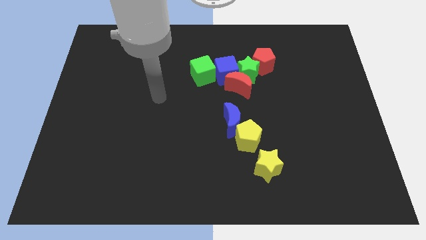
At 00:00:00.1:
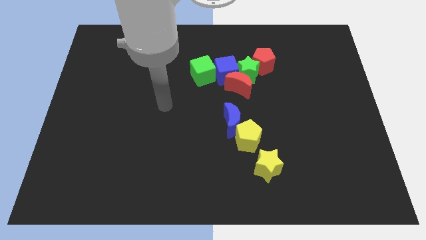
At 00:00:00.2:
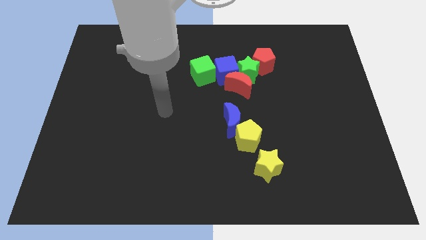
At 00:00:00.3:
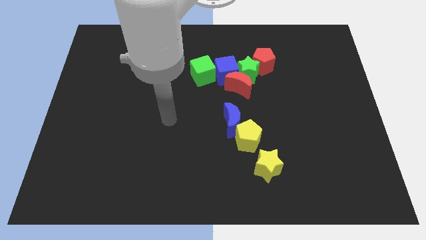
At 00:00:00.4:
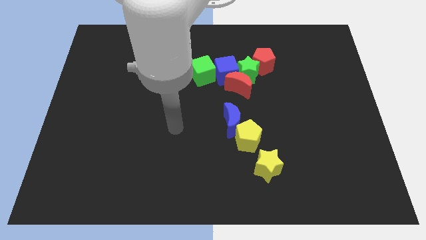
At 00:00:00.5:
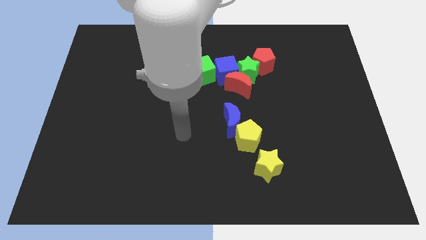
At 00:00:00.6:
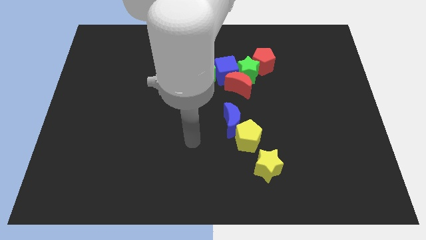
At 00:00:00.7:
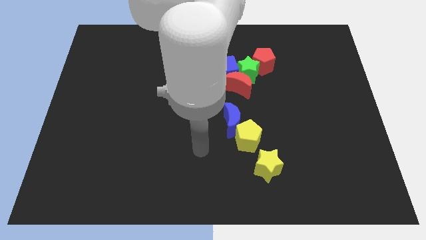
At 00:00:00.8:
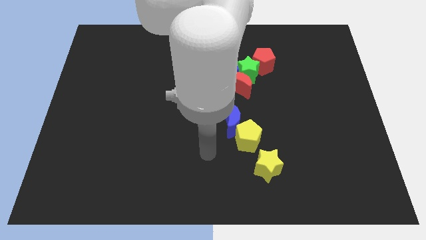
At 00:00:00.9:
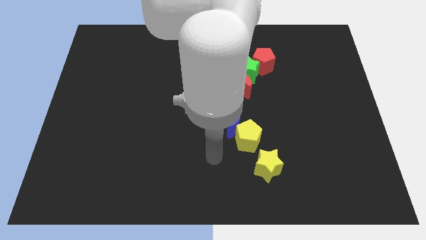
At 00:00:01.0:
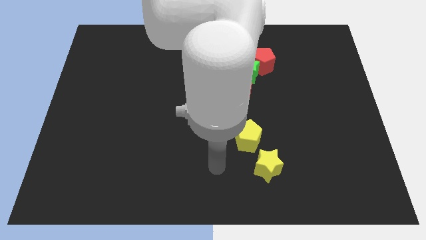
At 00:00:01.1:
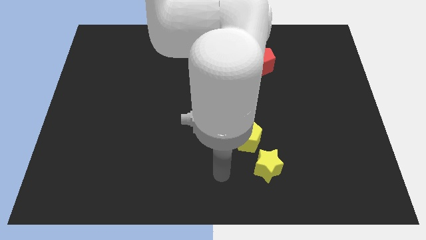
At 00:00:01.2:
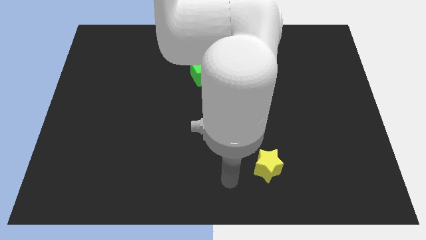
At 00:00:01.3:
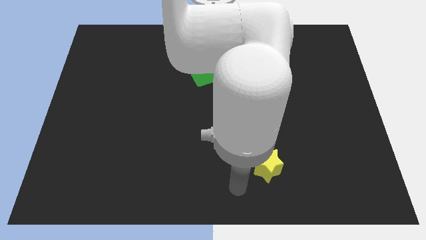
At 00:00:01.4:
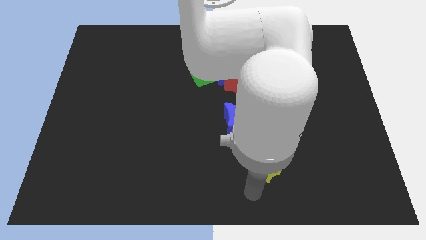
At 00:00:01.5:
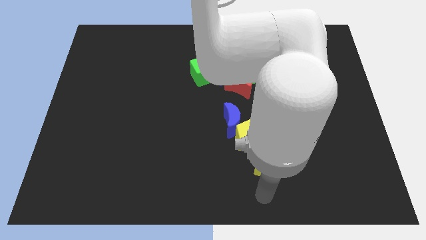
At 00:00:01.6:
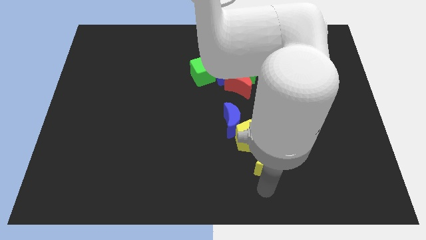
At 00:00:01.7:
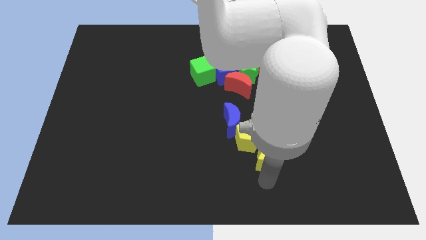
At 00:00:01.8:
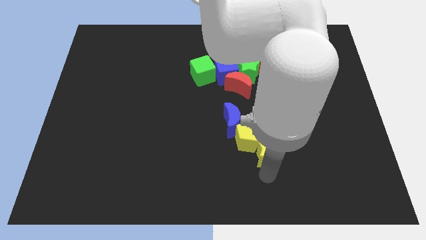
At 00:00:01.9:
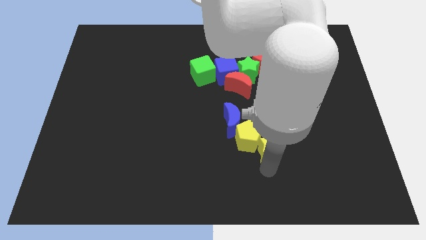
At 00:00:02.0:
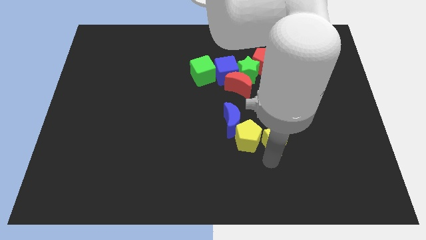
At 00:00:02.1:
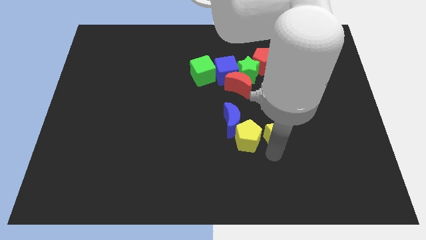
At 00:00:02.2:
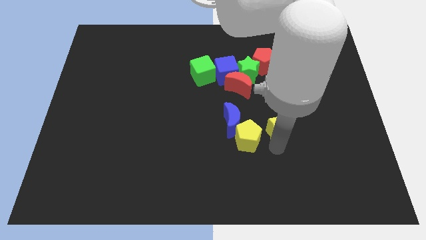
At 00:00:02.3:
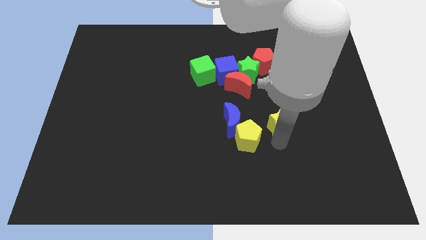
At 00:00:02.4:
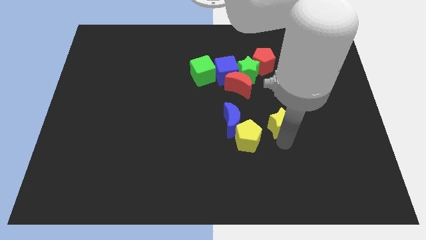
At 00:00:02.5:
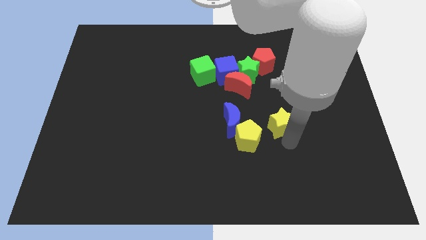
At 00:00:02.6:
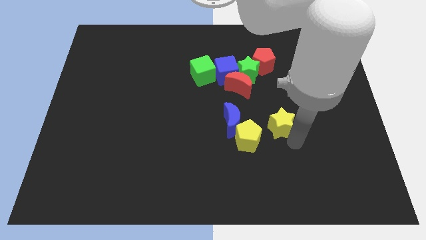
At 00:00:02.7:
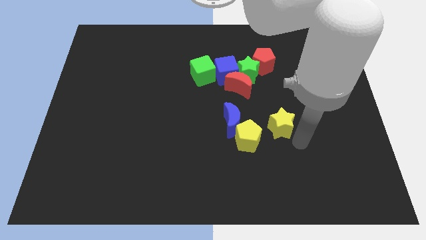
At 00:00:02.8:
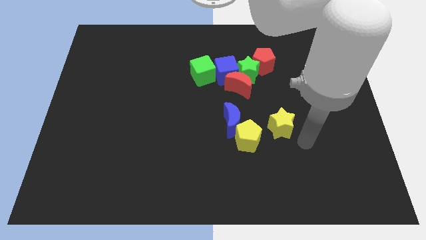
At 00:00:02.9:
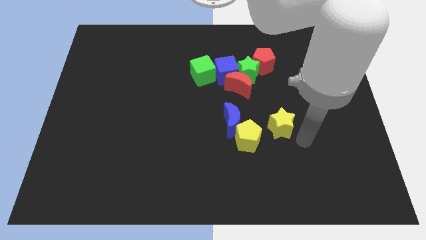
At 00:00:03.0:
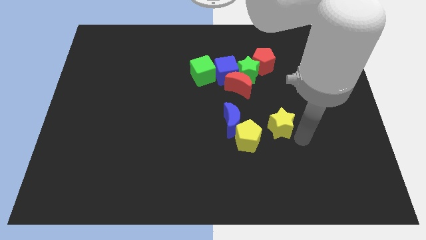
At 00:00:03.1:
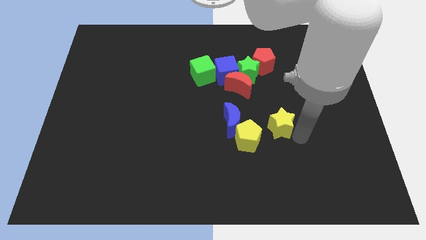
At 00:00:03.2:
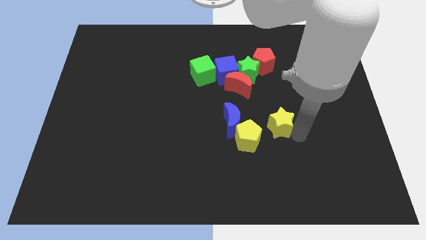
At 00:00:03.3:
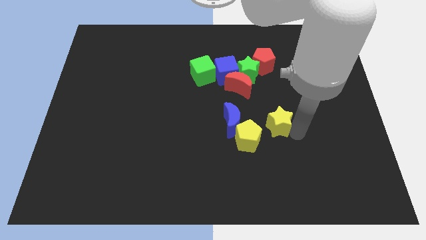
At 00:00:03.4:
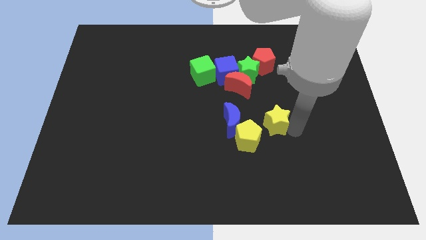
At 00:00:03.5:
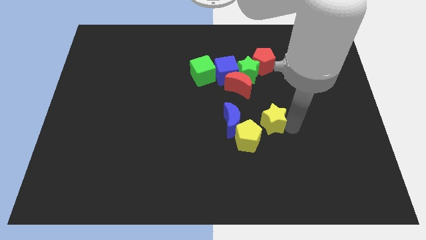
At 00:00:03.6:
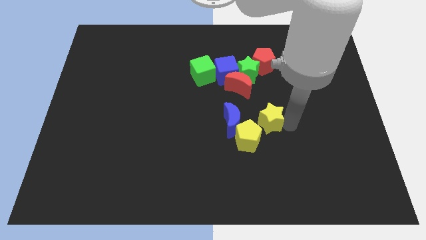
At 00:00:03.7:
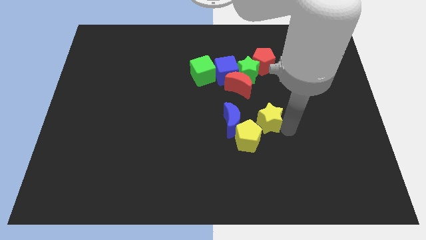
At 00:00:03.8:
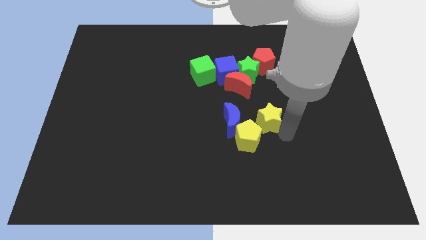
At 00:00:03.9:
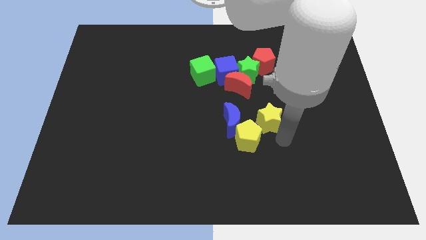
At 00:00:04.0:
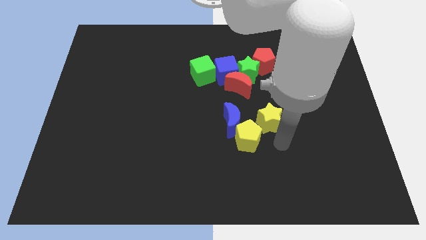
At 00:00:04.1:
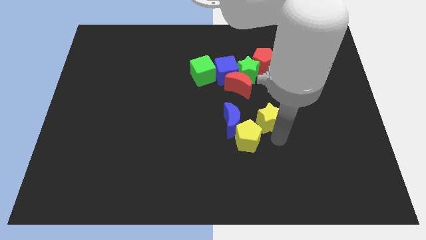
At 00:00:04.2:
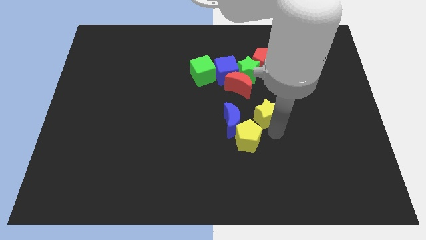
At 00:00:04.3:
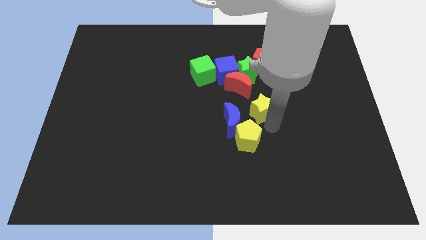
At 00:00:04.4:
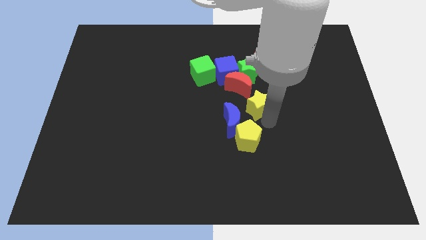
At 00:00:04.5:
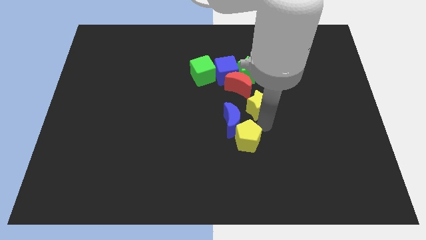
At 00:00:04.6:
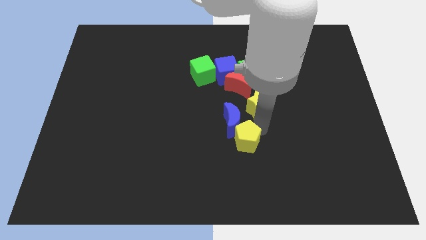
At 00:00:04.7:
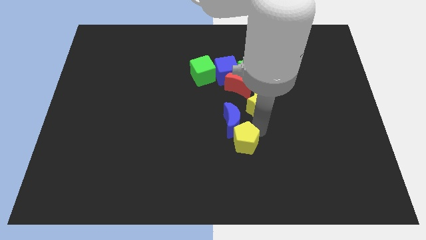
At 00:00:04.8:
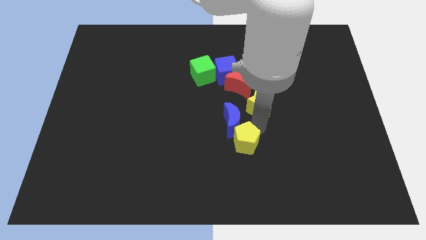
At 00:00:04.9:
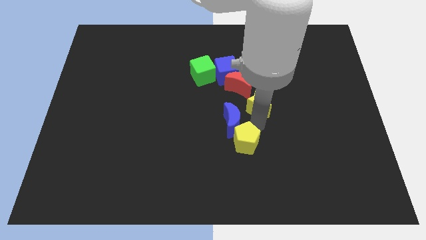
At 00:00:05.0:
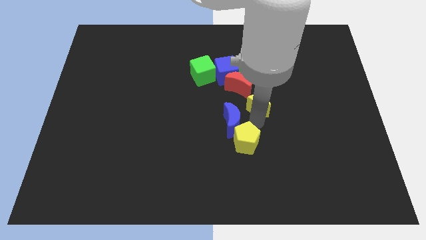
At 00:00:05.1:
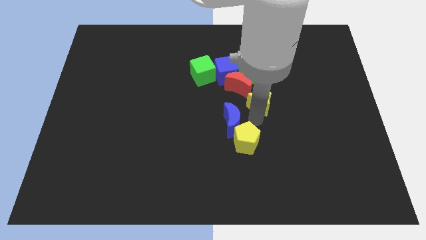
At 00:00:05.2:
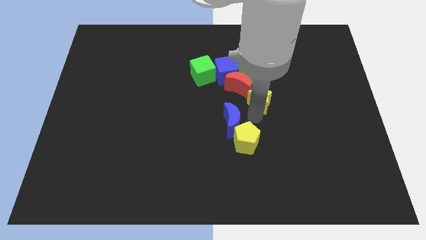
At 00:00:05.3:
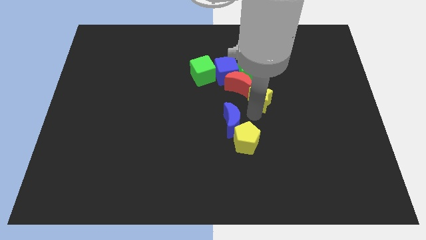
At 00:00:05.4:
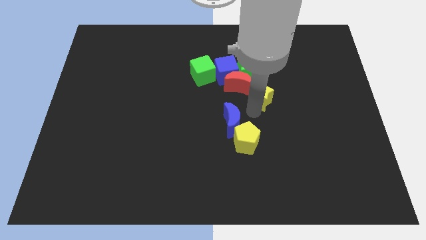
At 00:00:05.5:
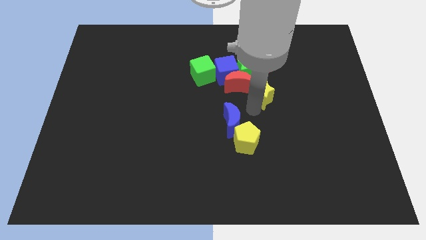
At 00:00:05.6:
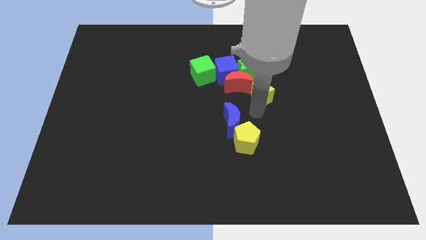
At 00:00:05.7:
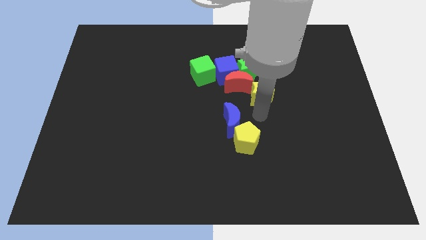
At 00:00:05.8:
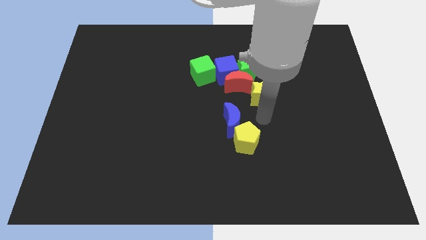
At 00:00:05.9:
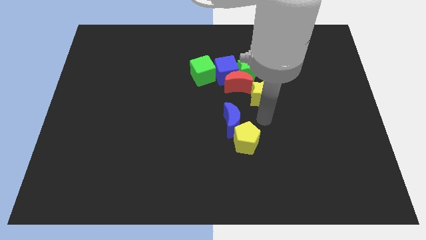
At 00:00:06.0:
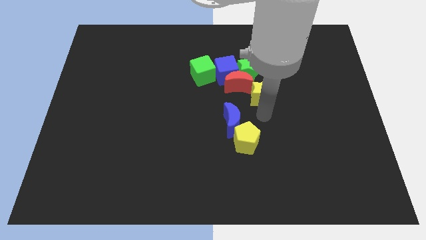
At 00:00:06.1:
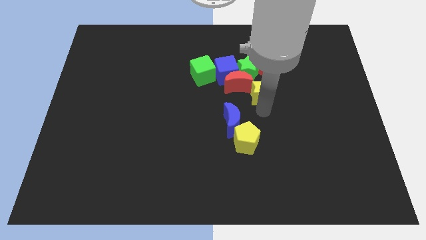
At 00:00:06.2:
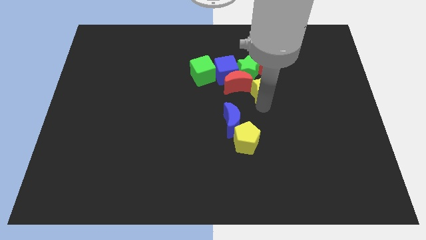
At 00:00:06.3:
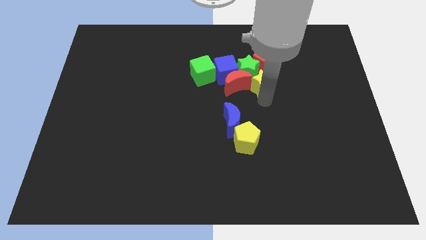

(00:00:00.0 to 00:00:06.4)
push the yellow star towards the green star
